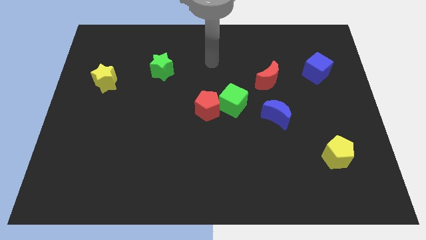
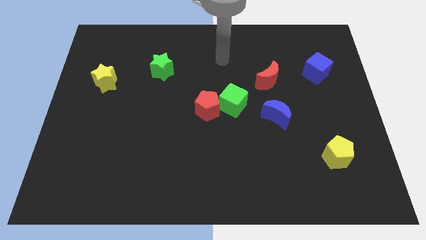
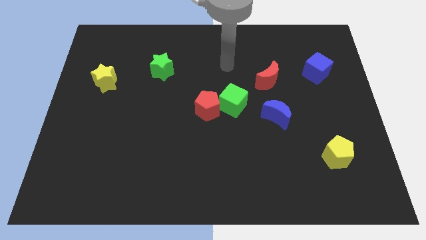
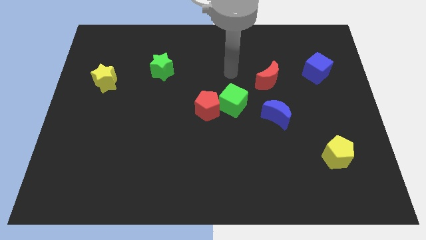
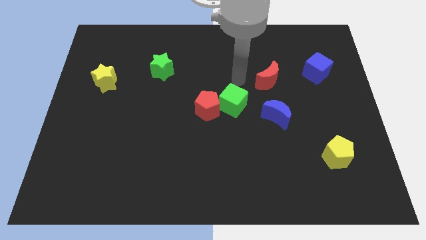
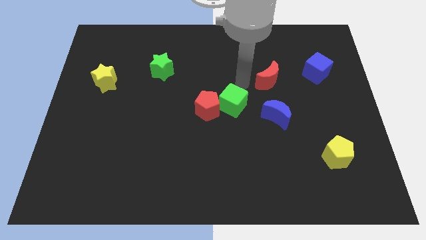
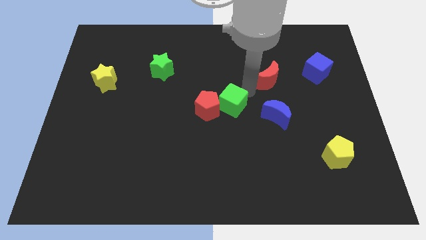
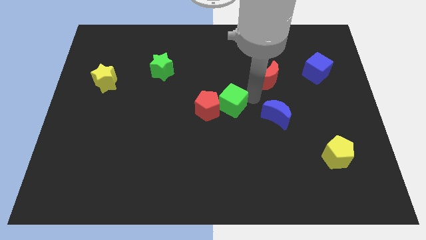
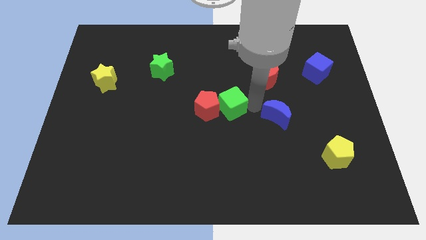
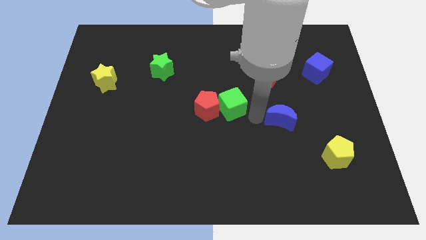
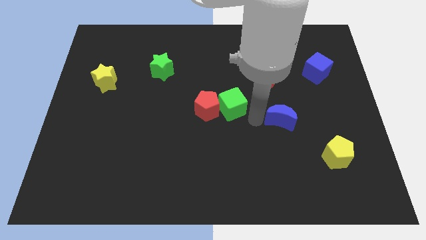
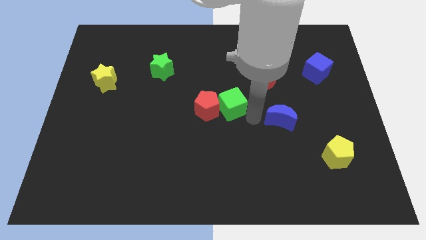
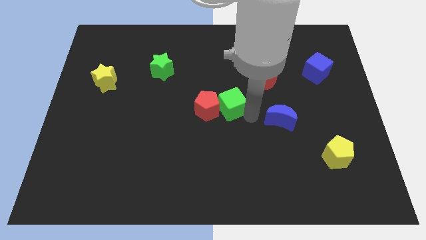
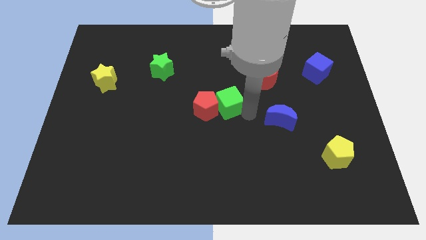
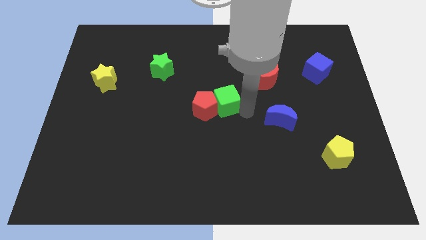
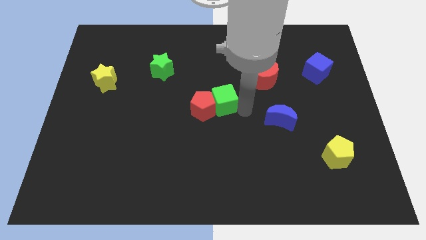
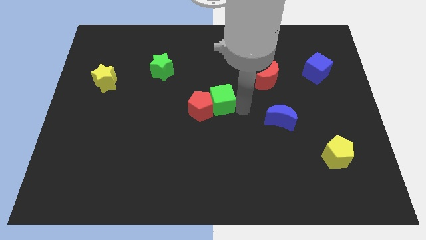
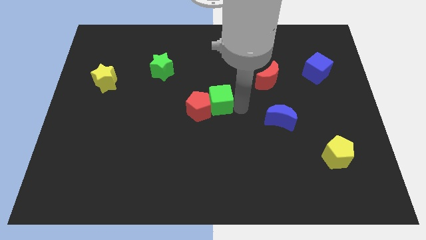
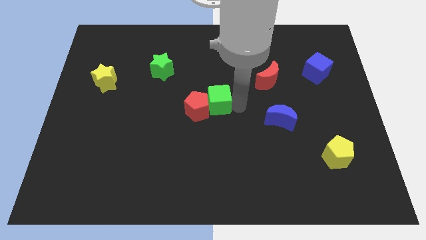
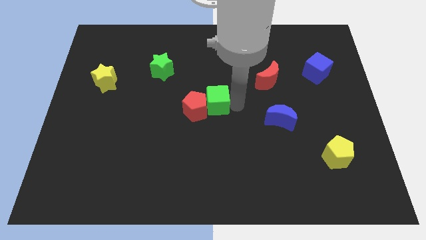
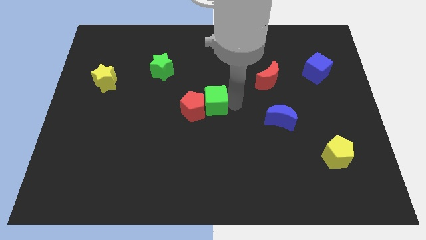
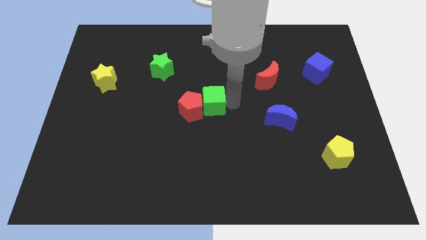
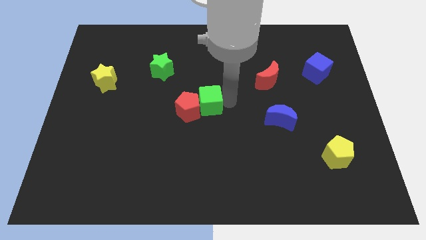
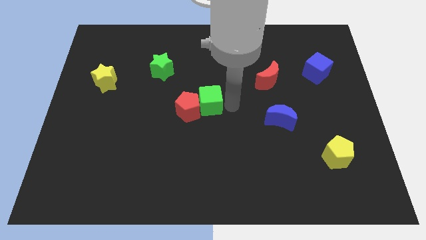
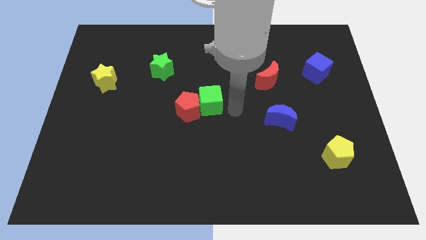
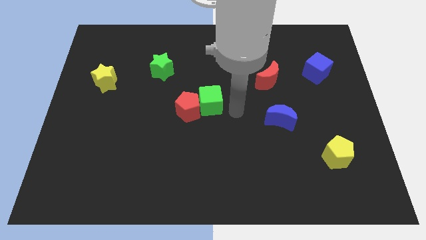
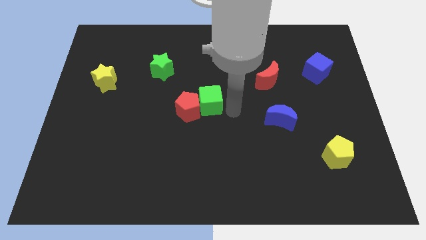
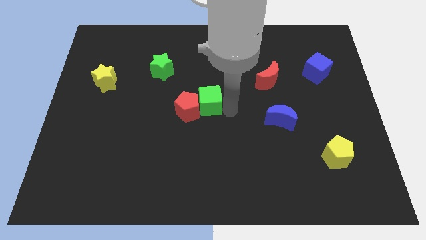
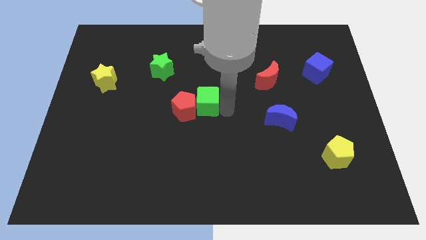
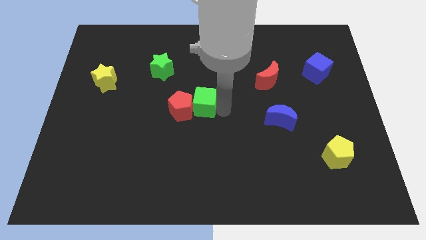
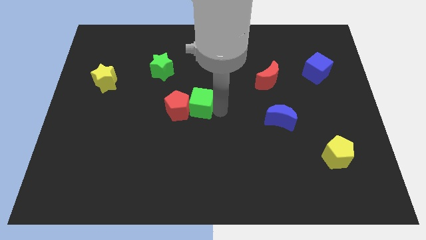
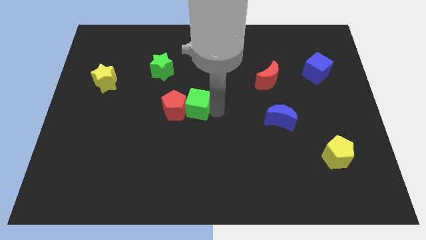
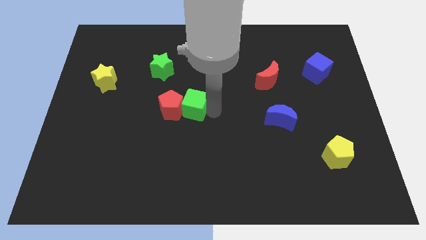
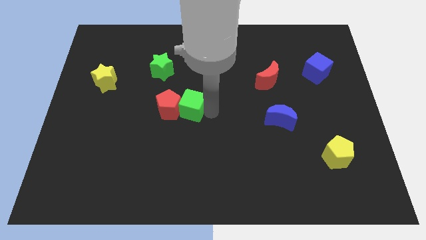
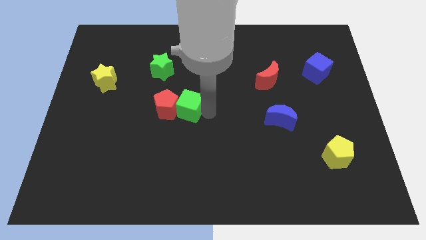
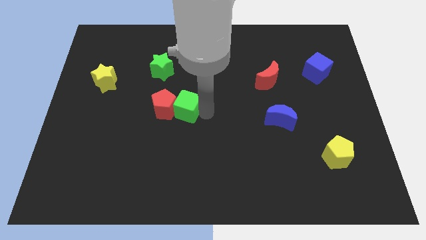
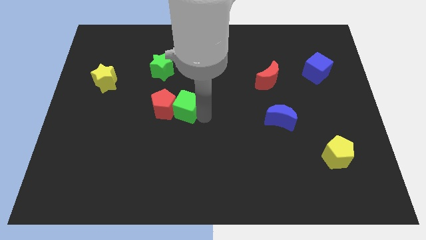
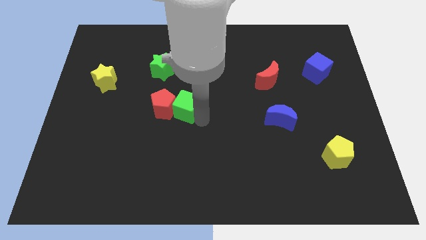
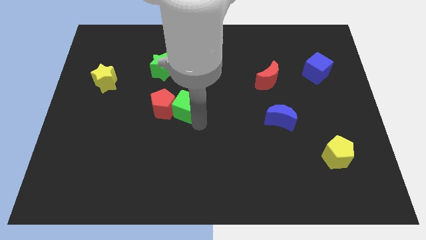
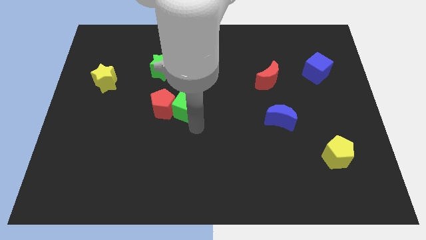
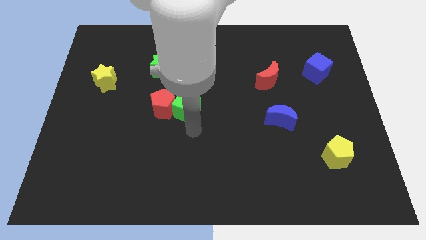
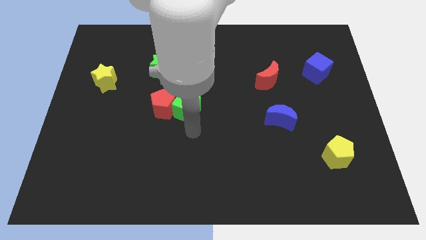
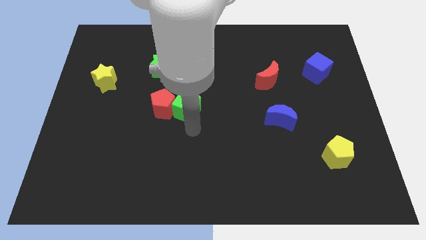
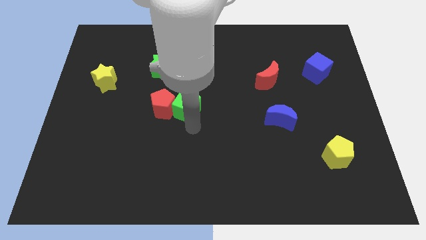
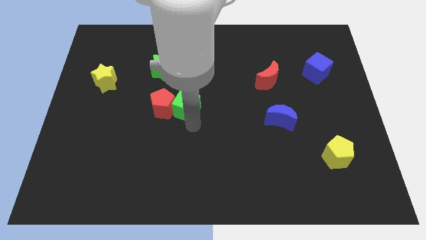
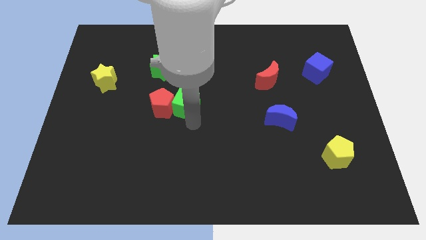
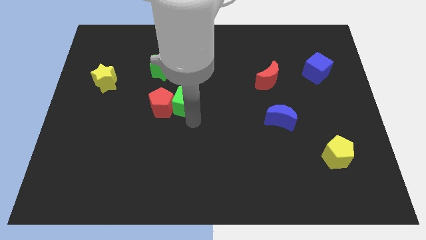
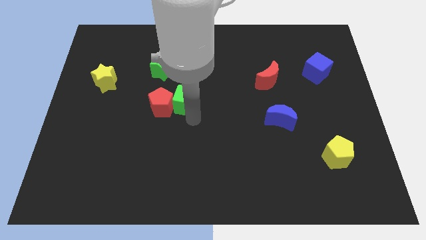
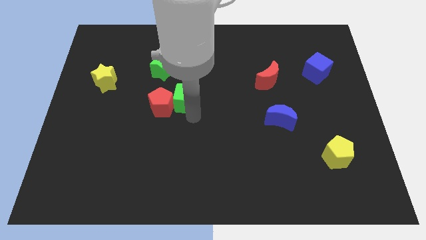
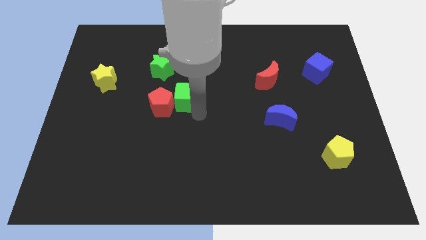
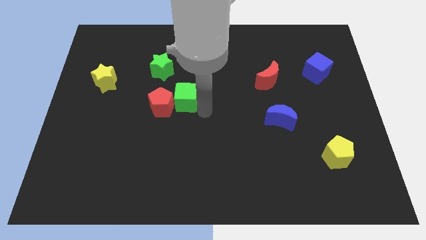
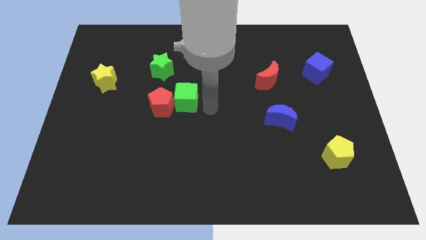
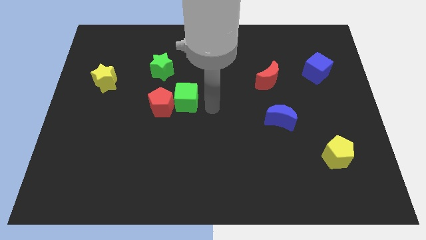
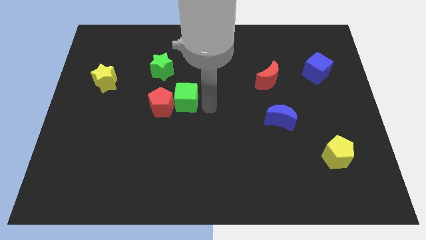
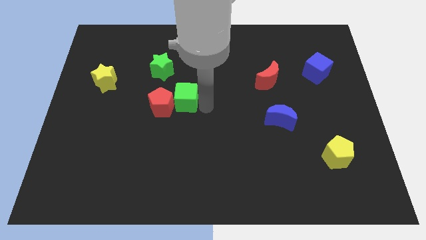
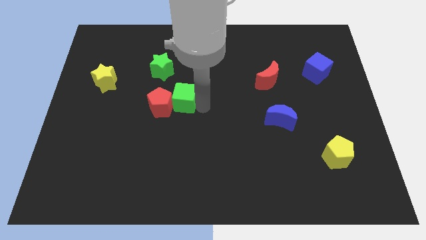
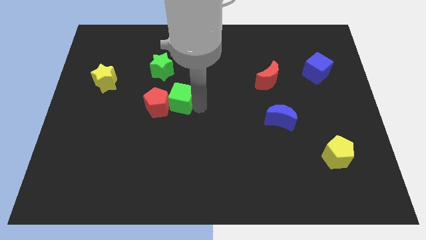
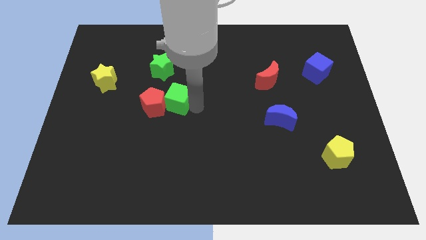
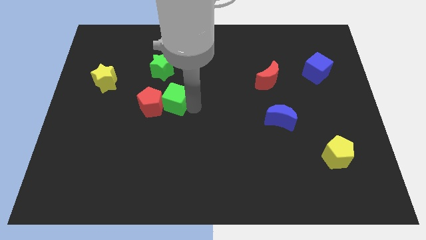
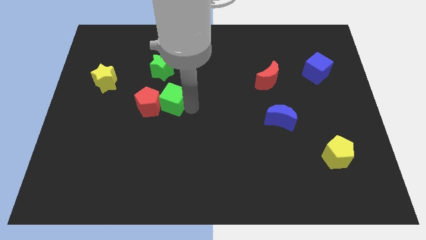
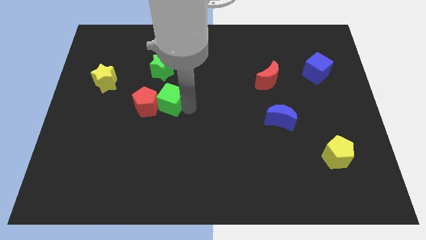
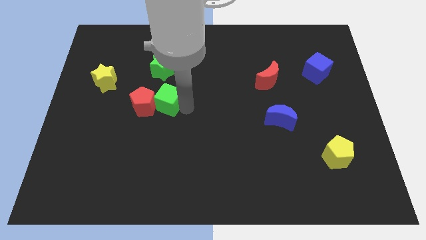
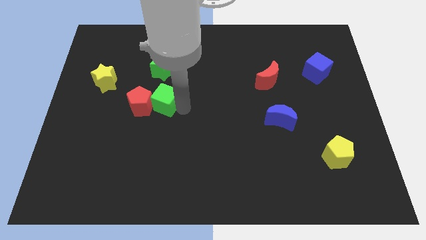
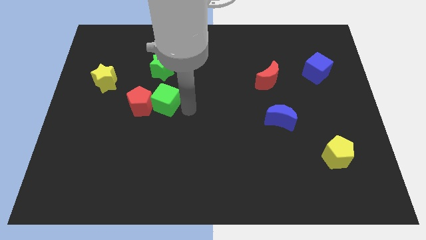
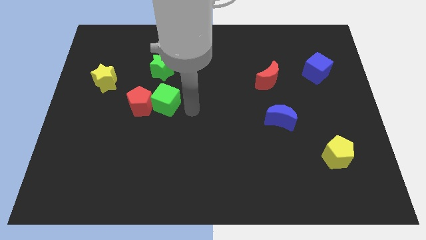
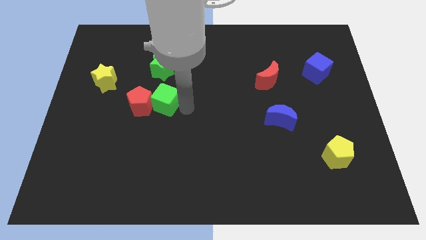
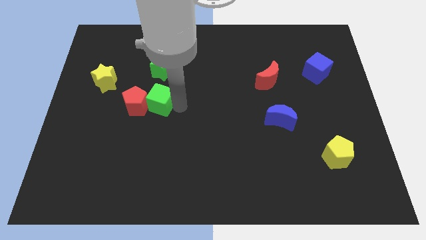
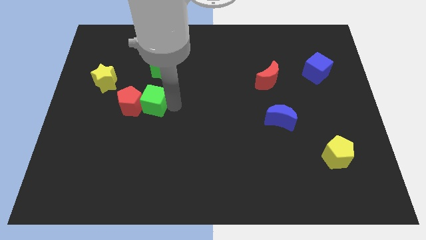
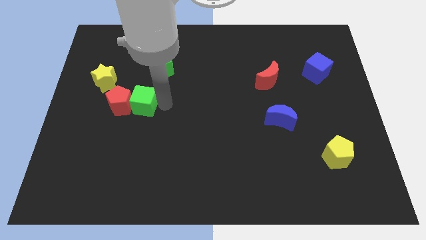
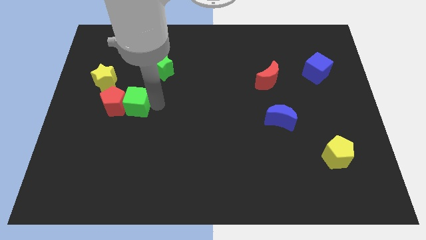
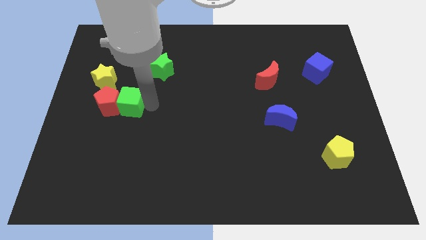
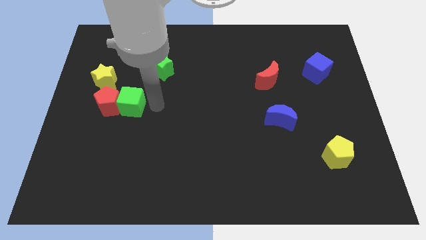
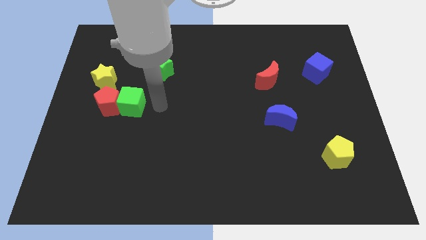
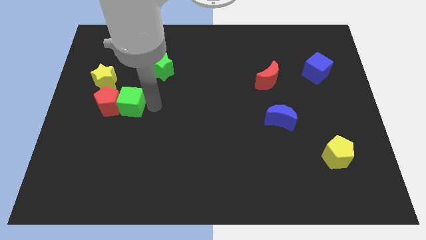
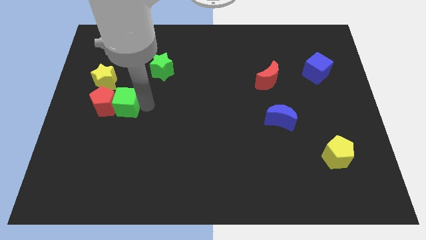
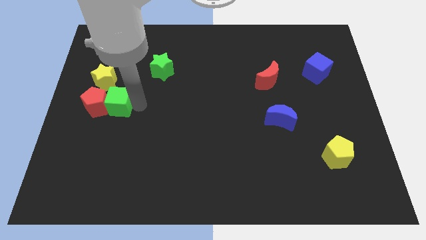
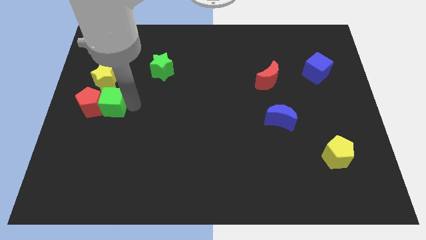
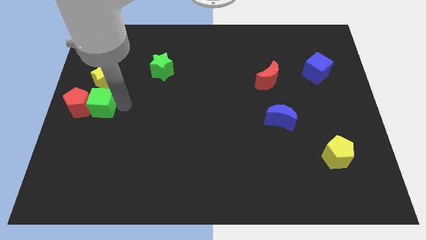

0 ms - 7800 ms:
move the green cube to the left side
